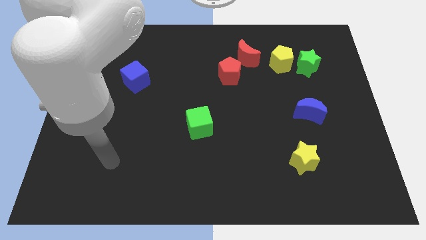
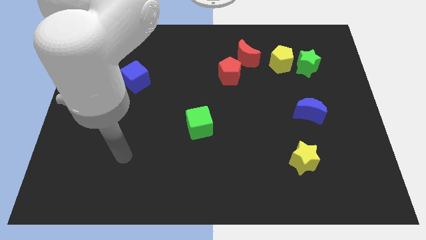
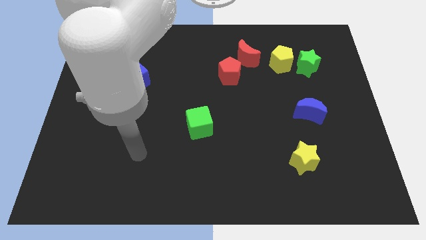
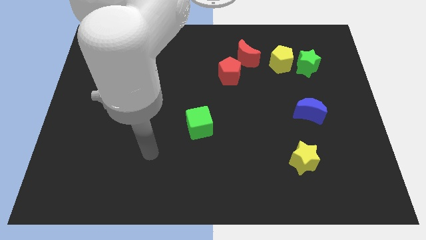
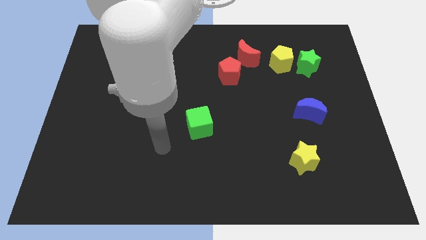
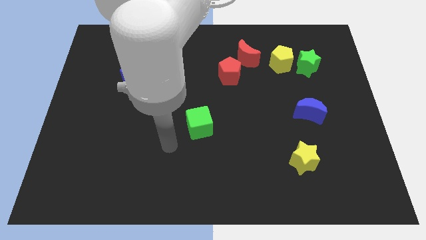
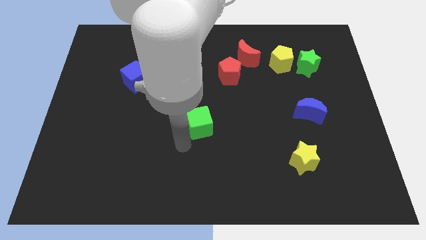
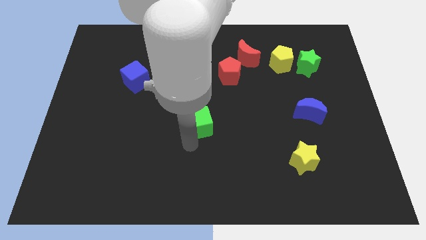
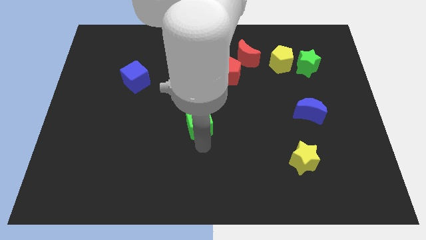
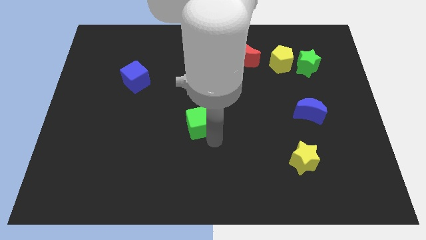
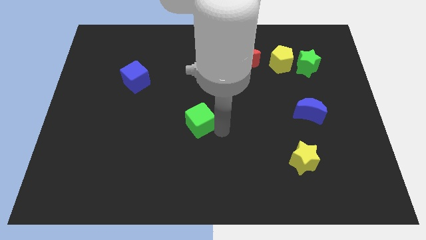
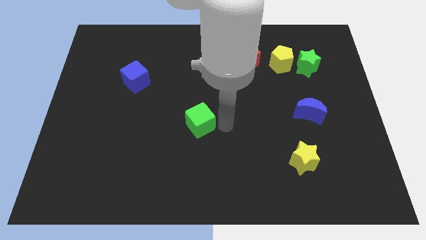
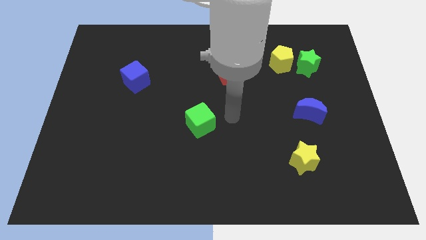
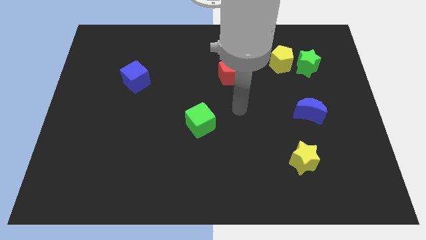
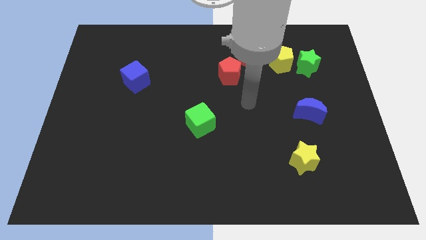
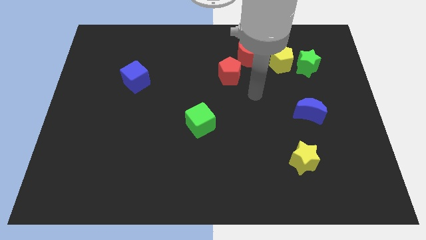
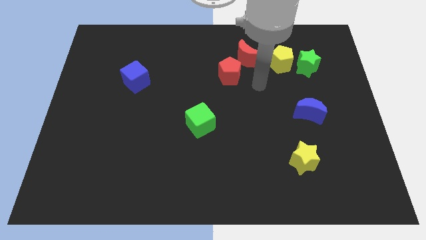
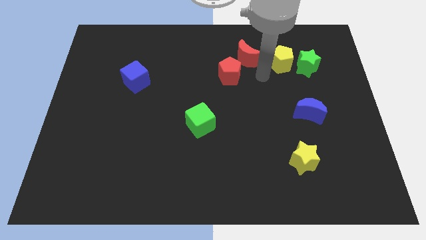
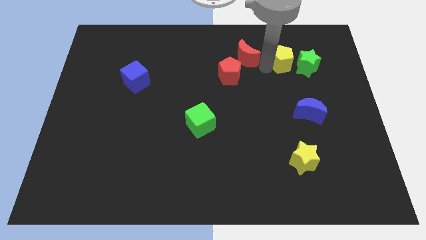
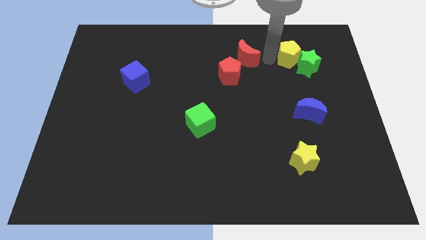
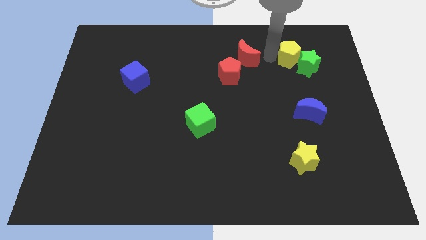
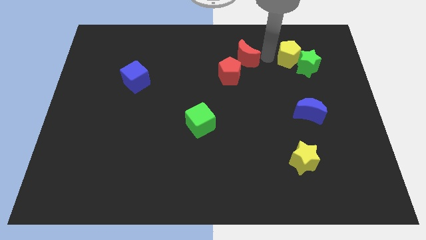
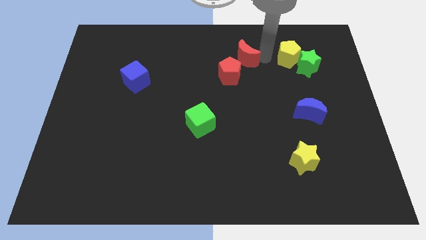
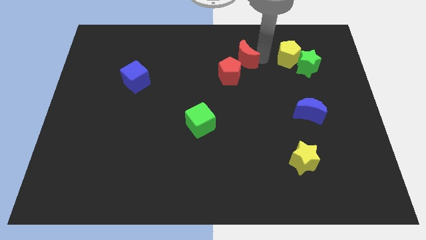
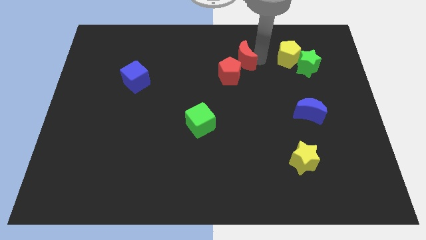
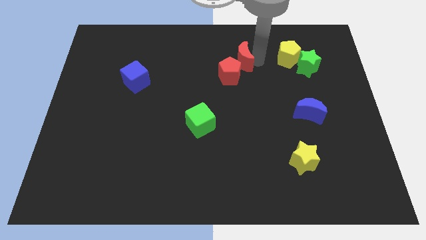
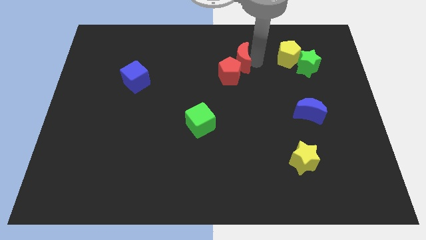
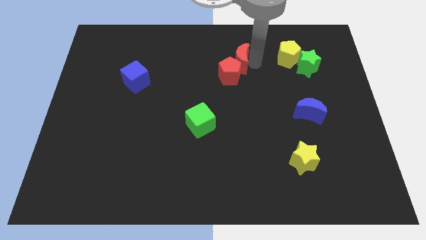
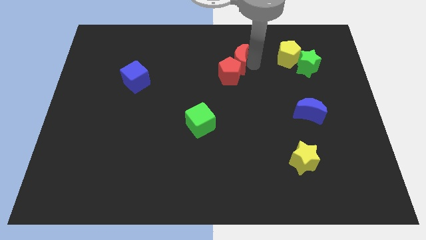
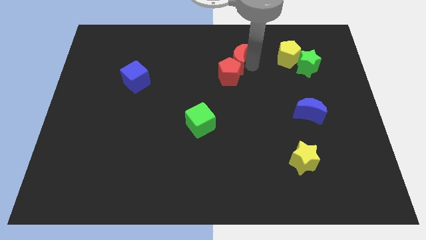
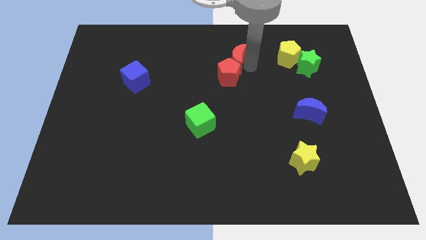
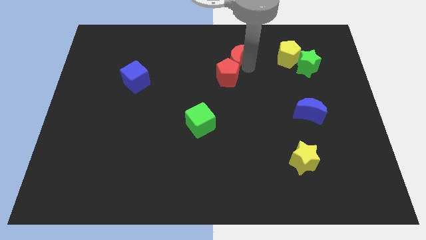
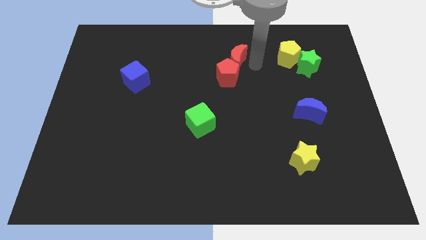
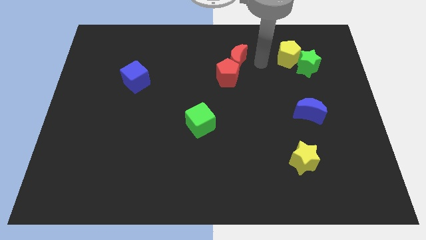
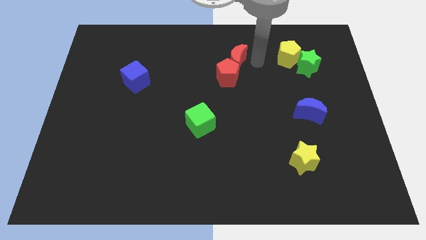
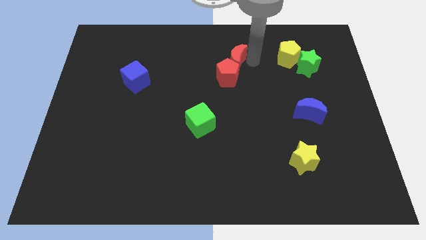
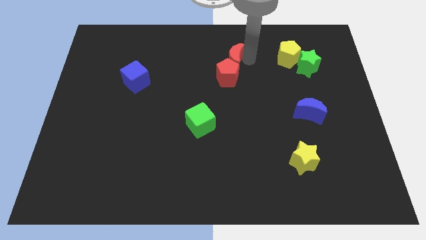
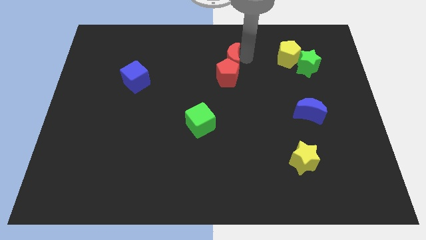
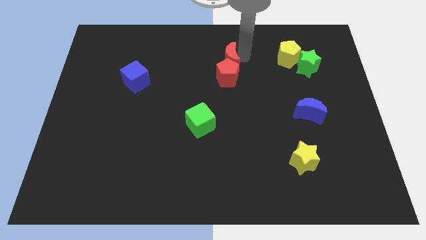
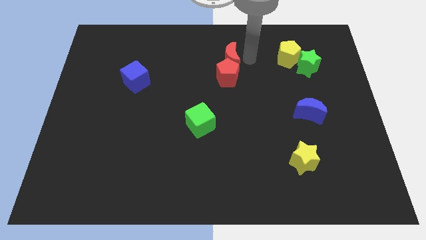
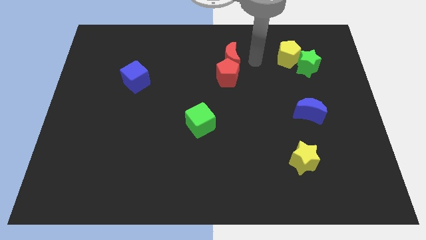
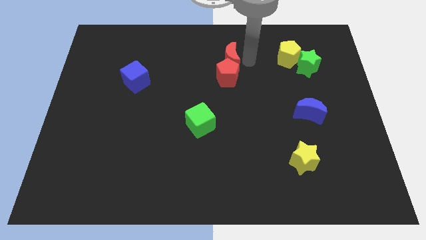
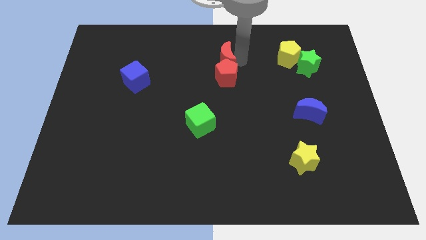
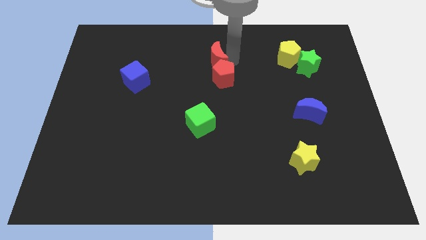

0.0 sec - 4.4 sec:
move the red moon a little bit left

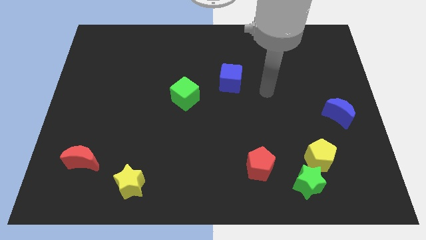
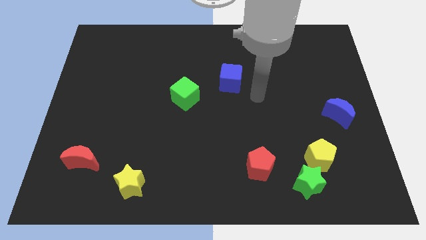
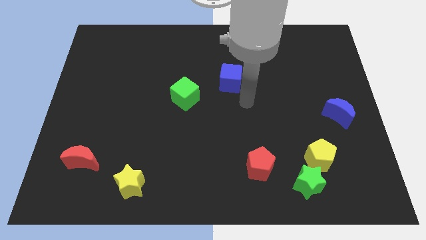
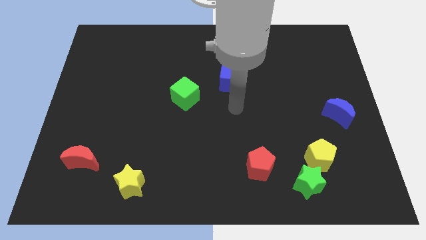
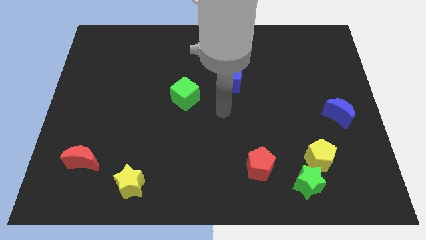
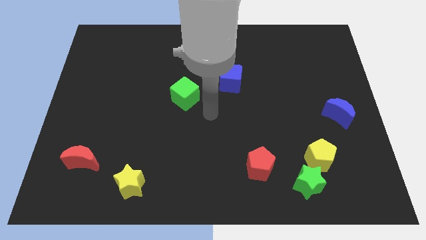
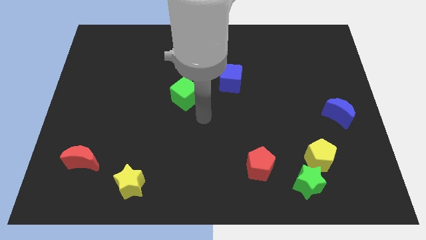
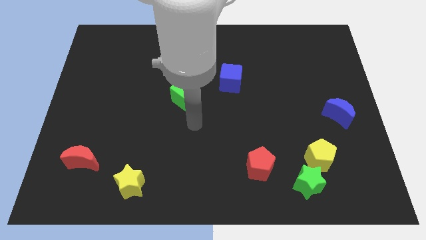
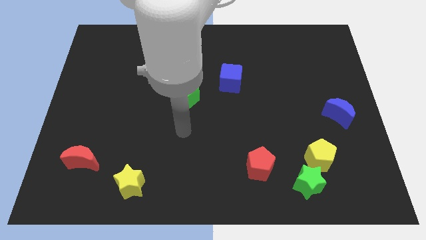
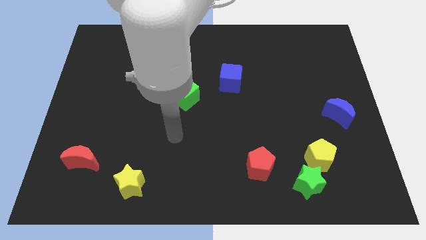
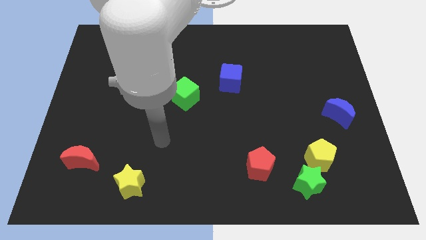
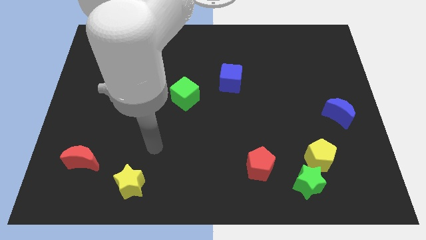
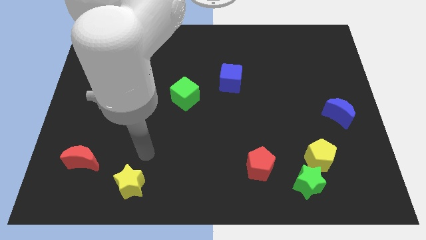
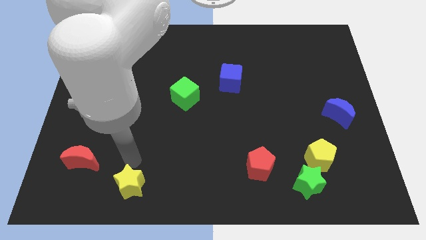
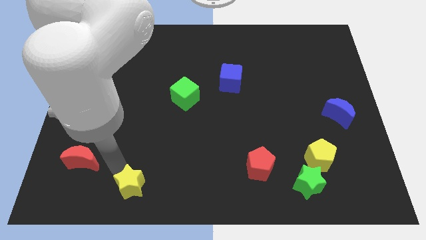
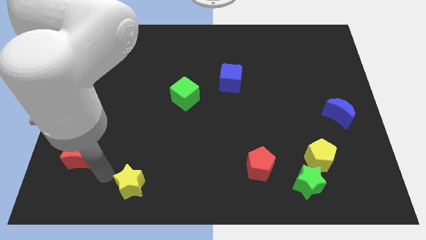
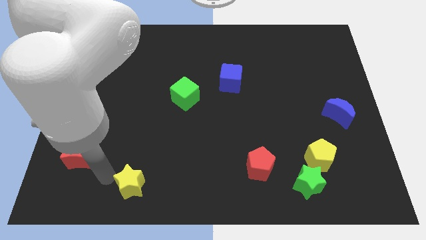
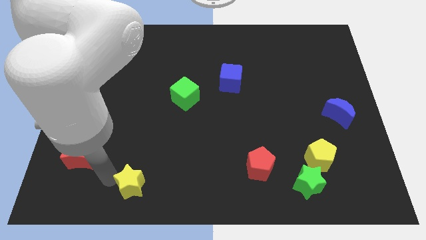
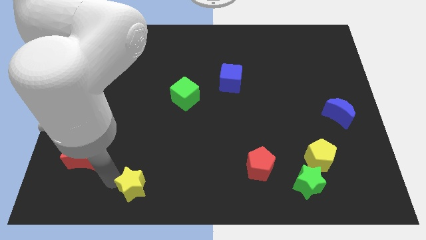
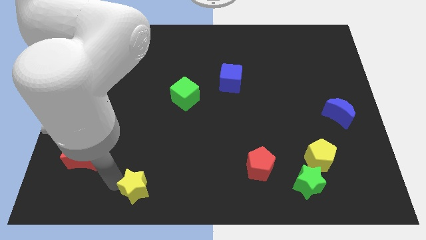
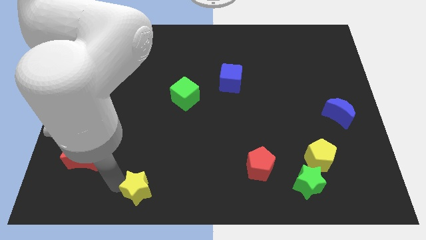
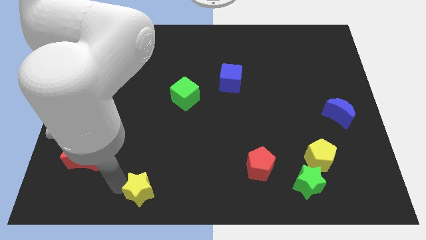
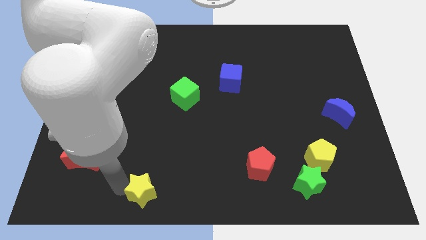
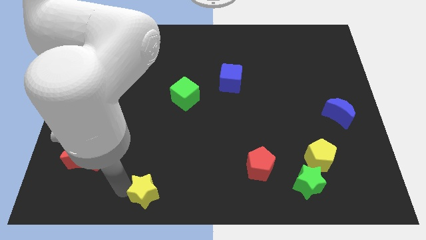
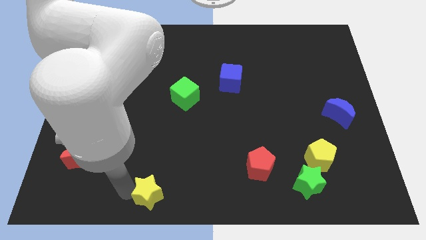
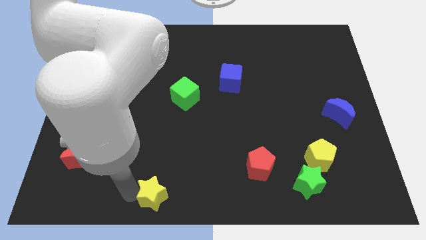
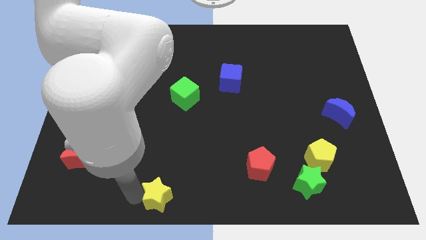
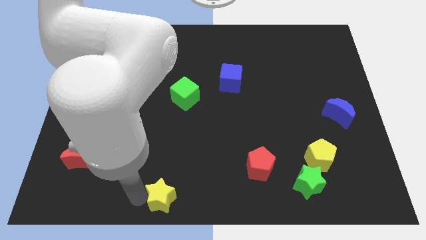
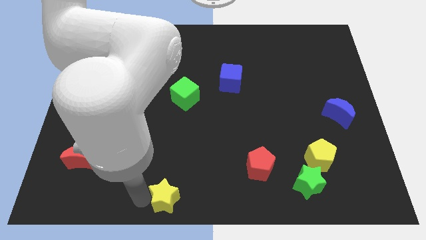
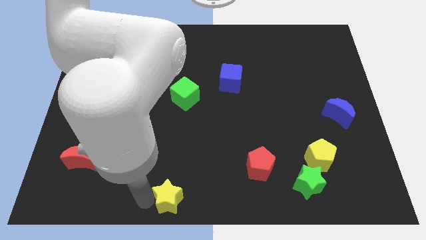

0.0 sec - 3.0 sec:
slightly push the yellow star right
